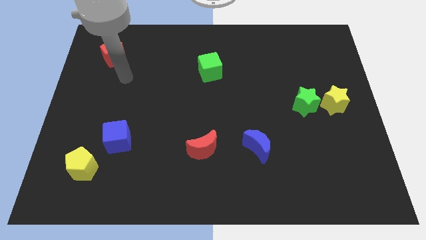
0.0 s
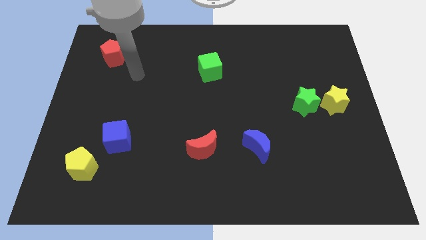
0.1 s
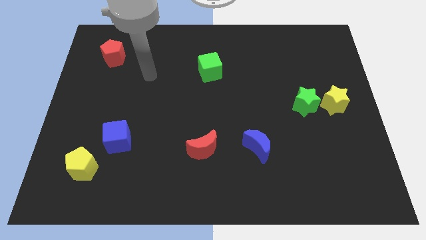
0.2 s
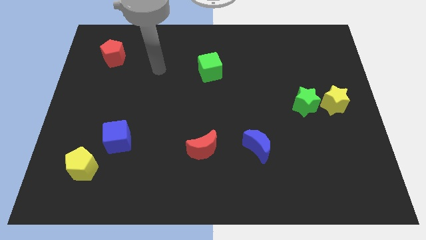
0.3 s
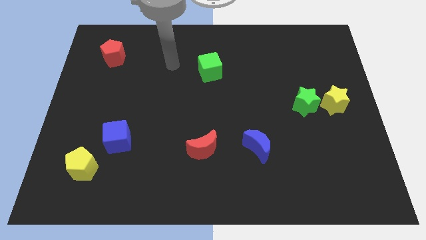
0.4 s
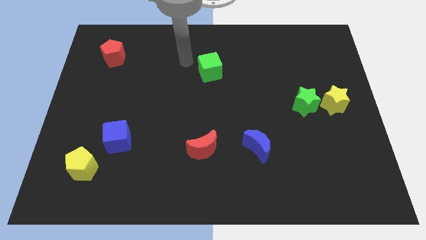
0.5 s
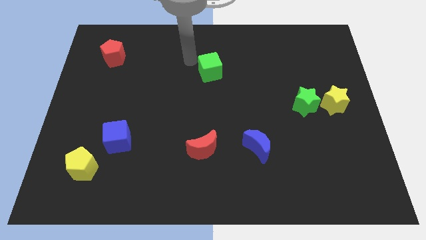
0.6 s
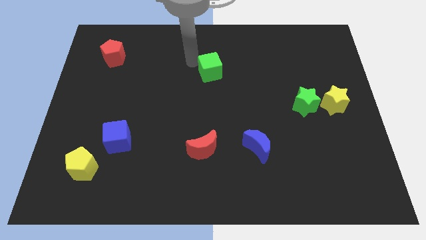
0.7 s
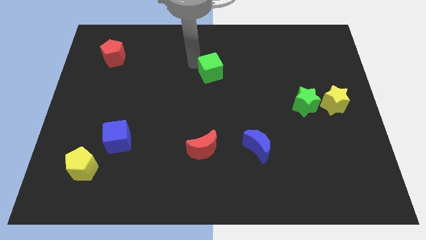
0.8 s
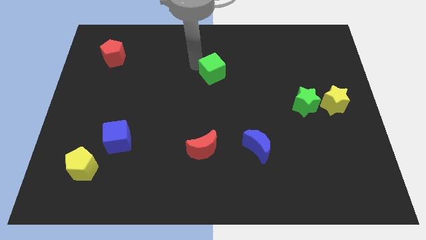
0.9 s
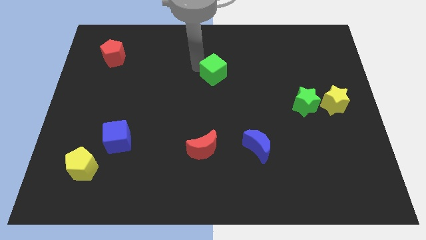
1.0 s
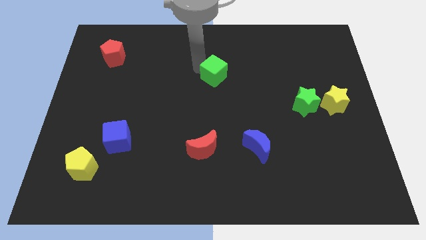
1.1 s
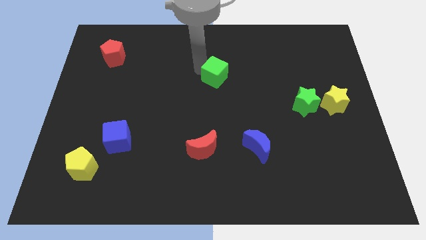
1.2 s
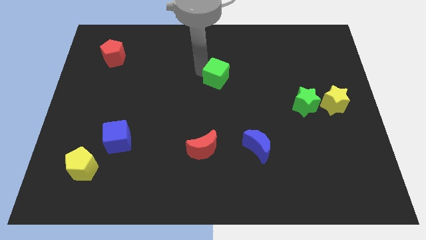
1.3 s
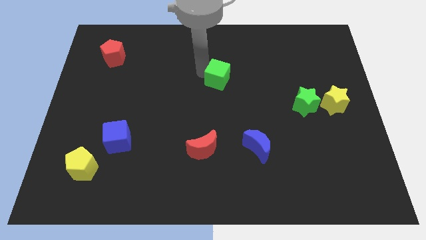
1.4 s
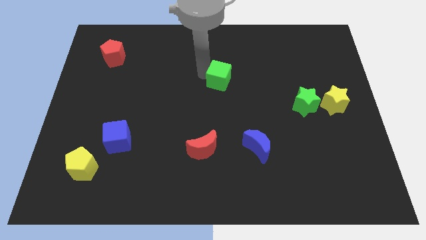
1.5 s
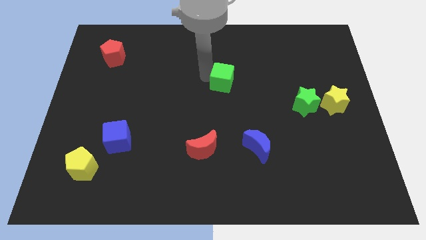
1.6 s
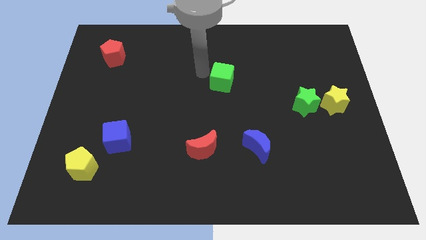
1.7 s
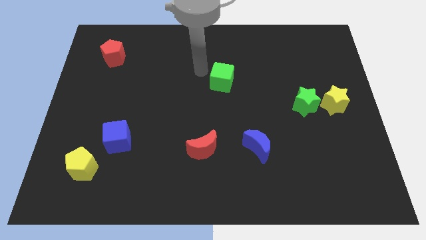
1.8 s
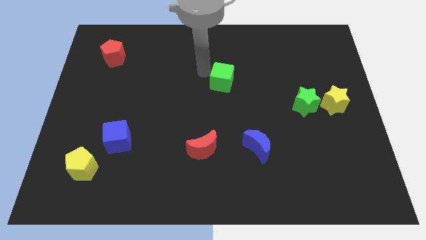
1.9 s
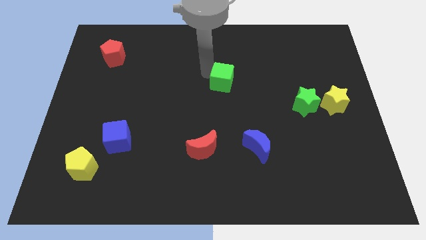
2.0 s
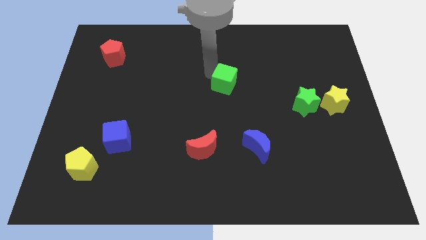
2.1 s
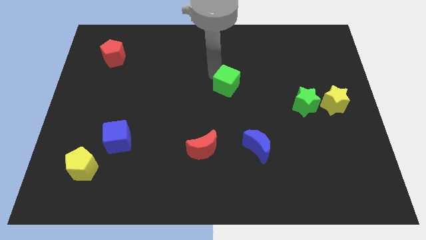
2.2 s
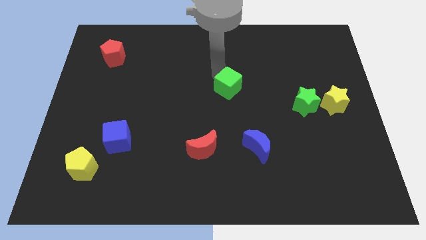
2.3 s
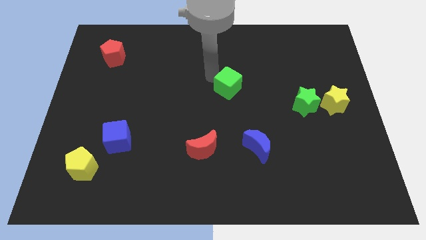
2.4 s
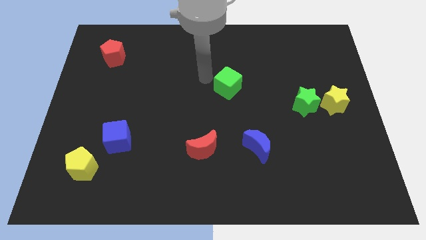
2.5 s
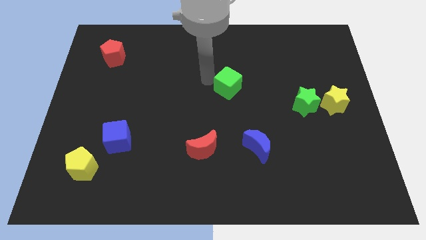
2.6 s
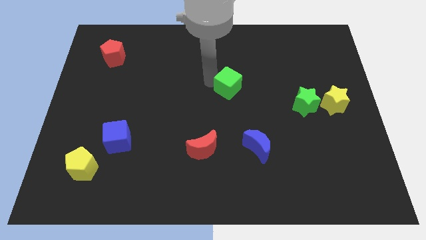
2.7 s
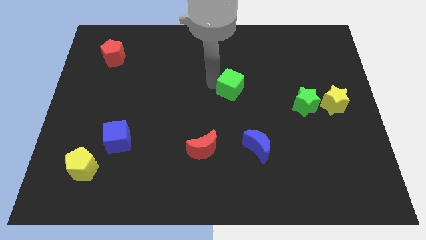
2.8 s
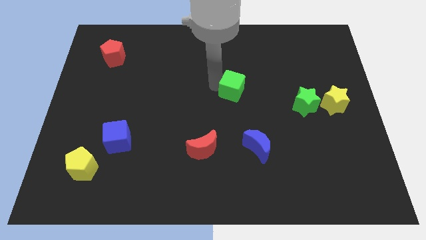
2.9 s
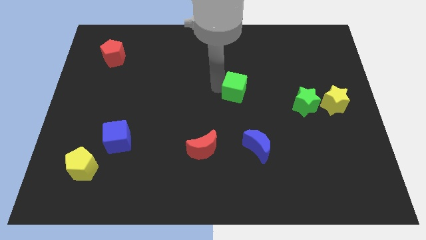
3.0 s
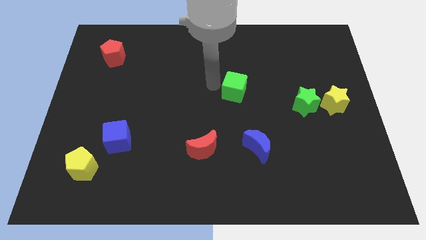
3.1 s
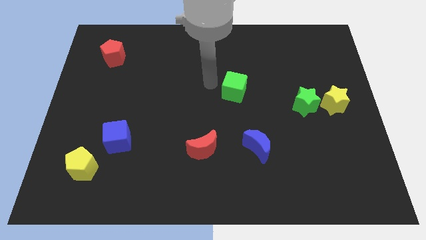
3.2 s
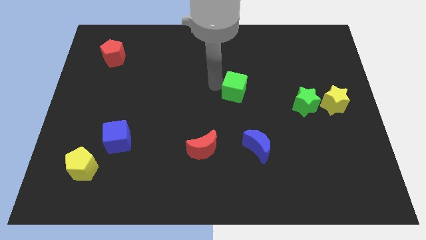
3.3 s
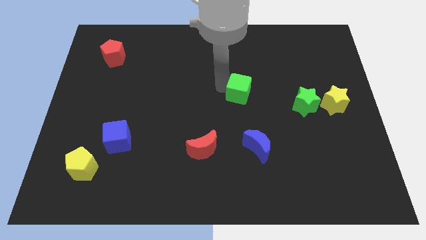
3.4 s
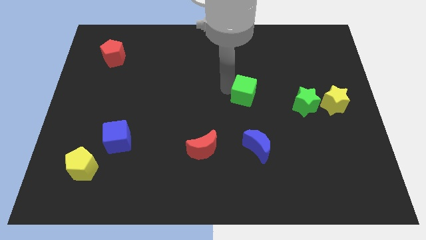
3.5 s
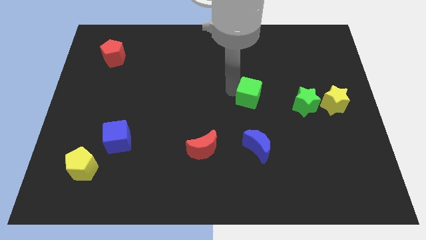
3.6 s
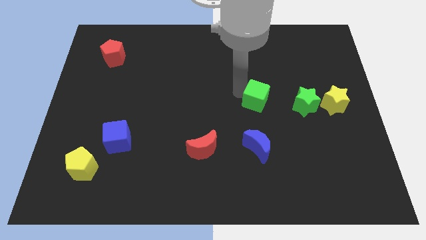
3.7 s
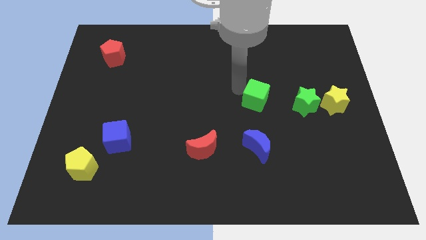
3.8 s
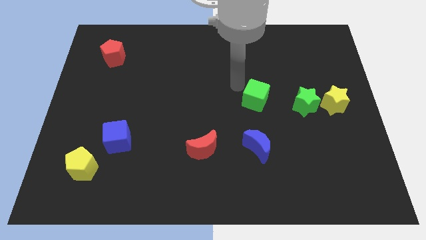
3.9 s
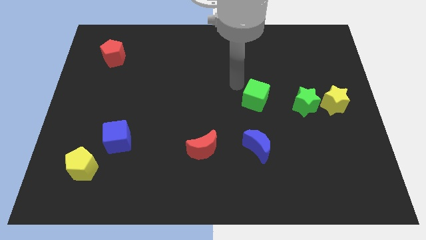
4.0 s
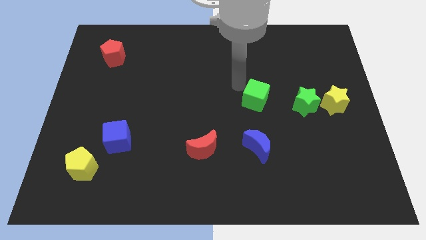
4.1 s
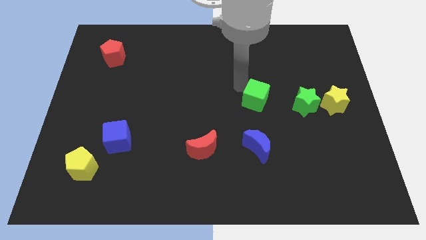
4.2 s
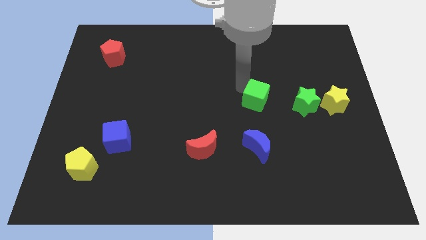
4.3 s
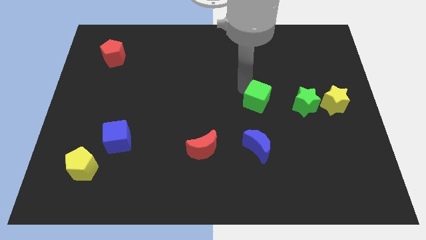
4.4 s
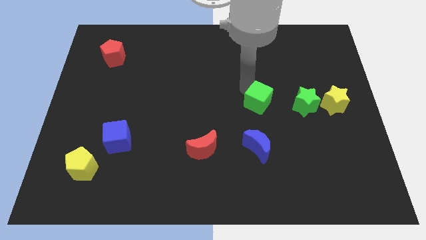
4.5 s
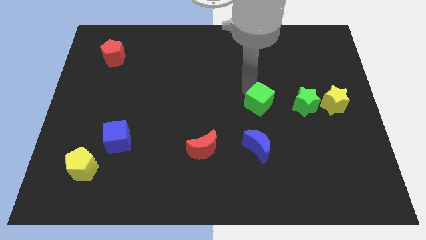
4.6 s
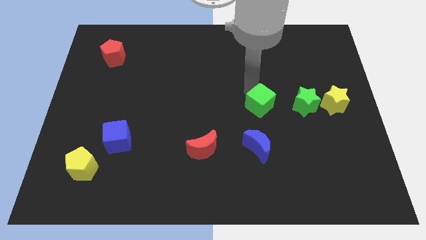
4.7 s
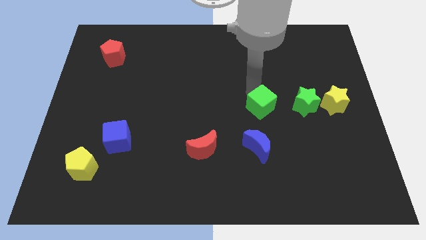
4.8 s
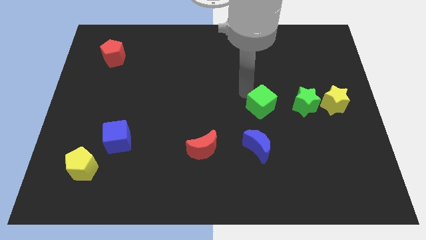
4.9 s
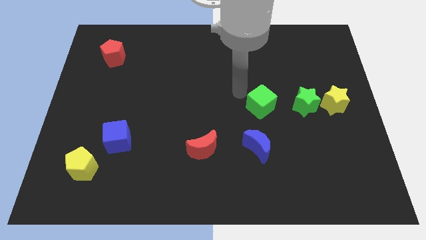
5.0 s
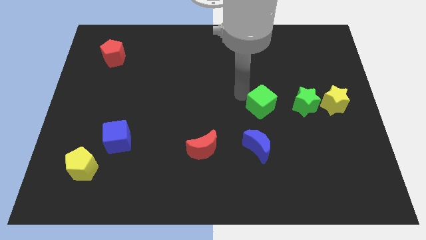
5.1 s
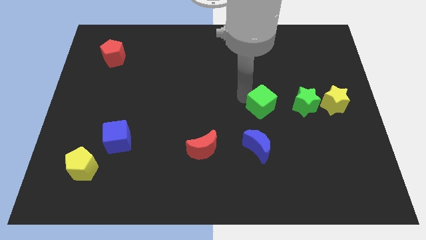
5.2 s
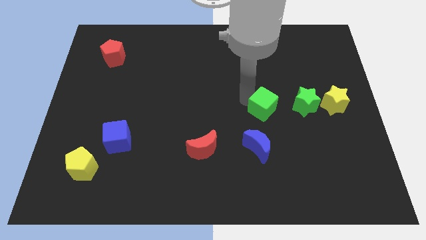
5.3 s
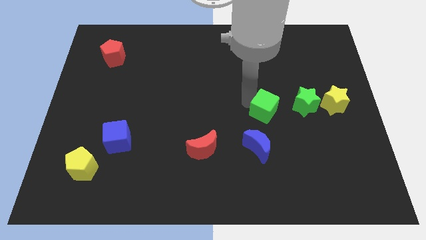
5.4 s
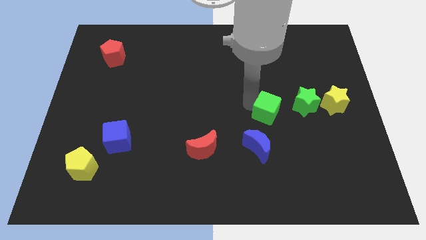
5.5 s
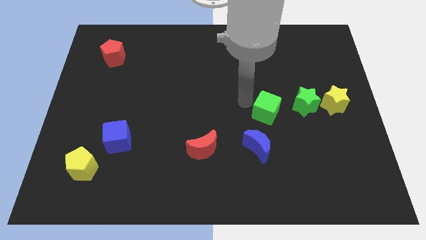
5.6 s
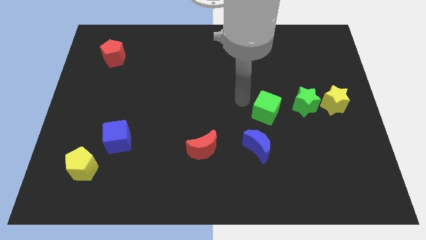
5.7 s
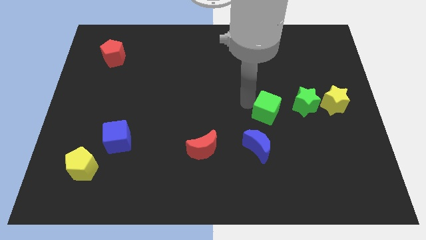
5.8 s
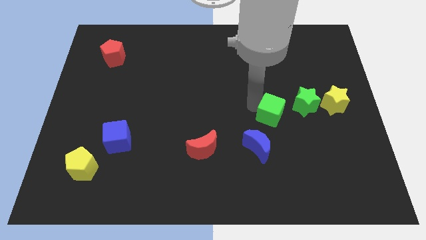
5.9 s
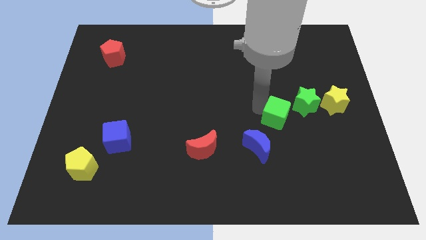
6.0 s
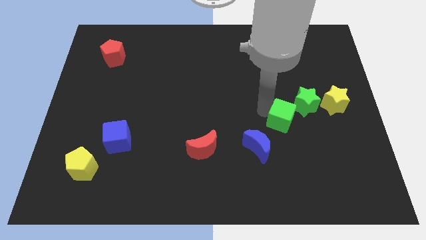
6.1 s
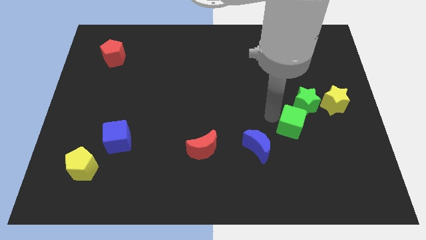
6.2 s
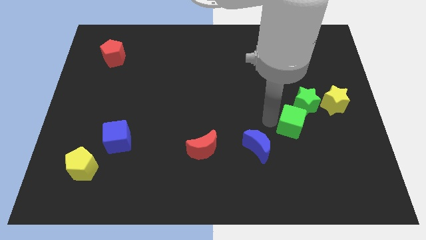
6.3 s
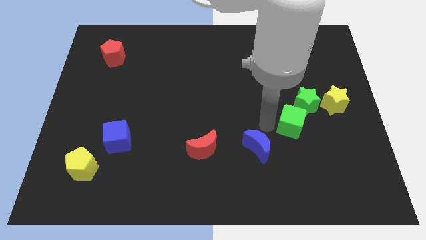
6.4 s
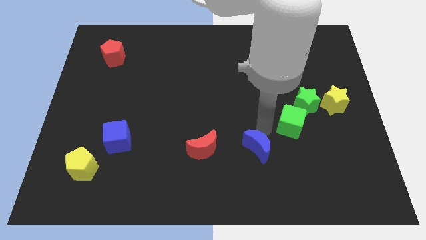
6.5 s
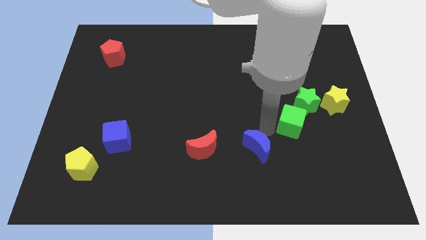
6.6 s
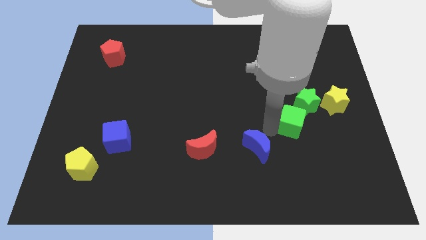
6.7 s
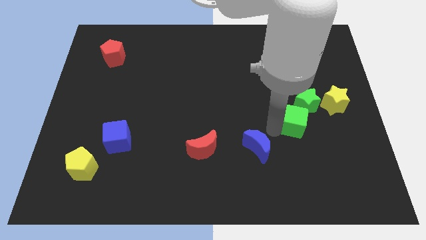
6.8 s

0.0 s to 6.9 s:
move the green cube to the bottom left side of the yellow star

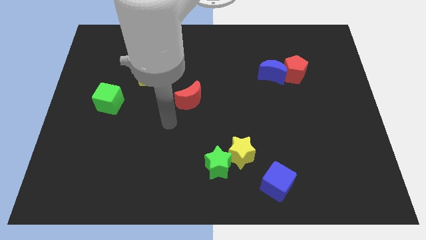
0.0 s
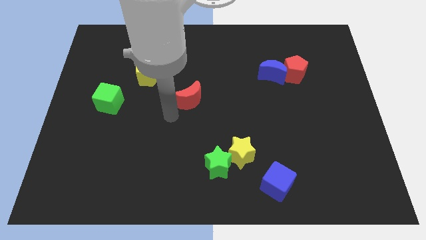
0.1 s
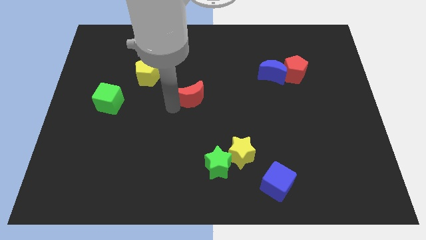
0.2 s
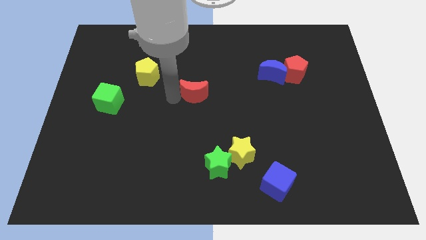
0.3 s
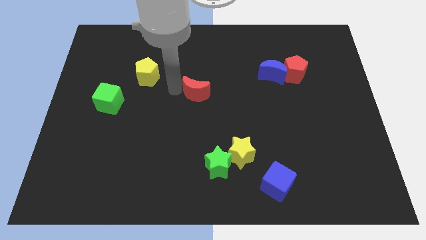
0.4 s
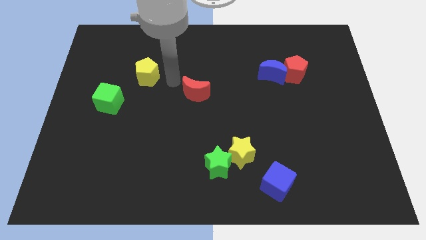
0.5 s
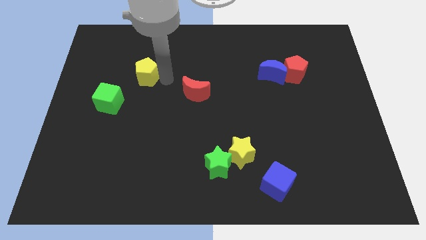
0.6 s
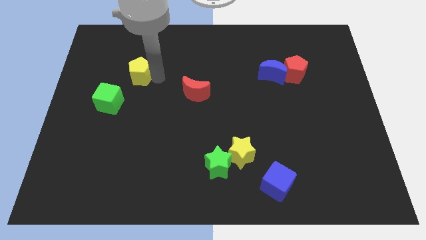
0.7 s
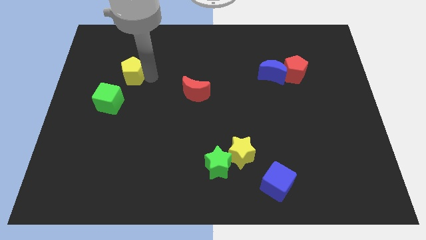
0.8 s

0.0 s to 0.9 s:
put the yellow pentagon to the top of the green cube
